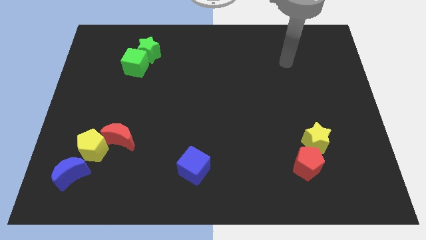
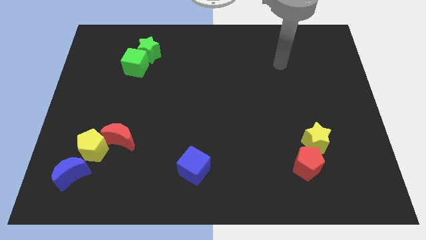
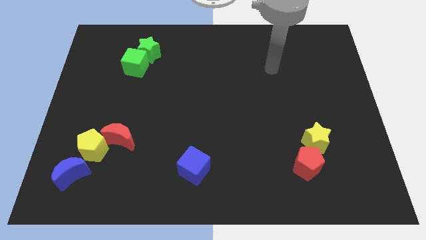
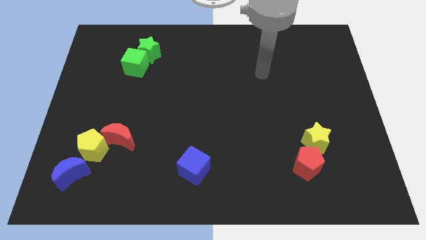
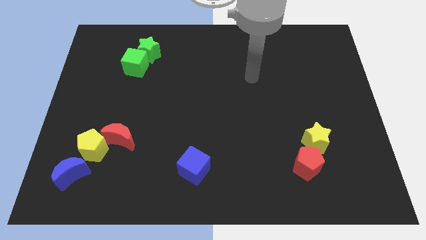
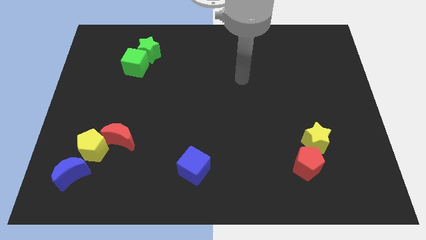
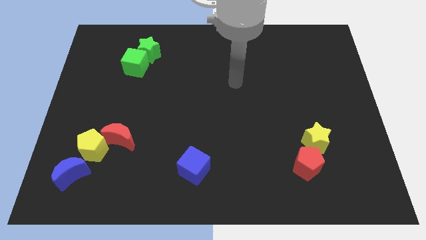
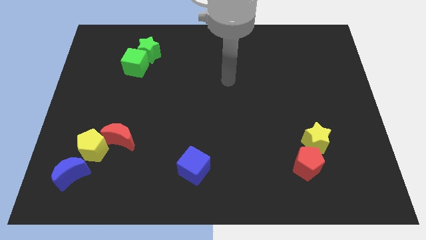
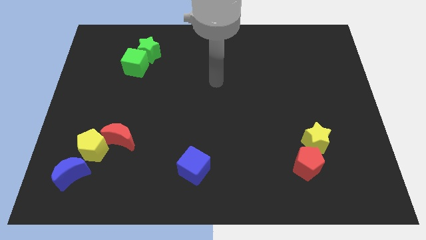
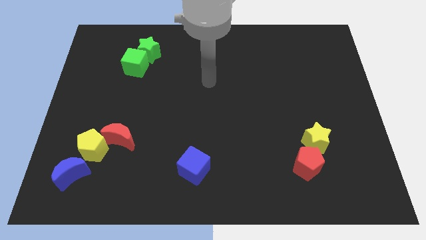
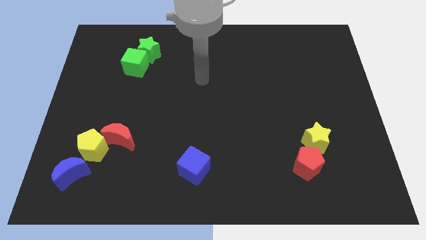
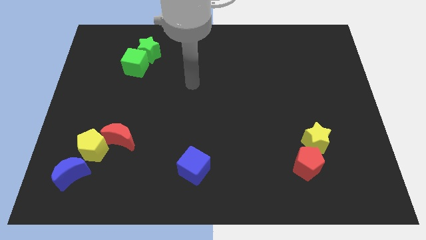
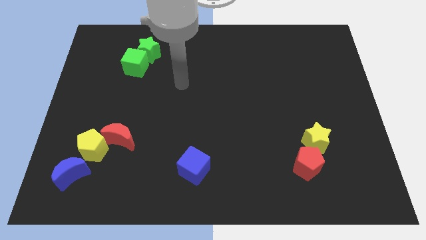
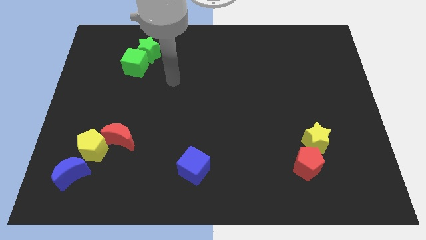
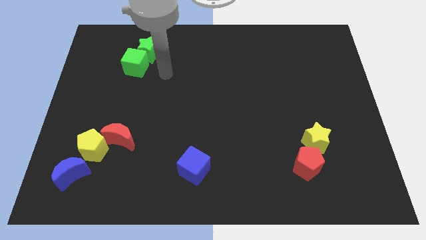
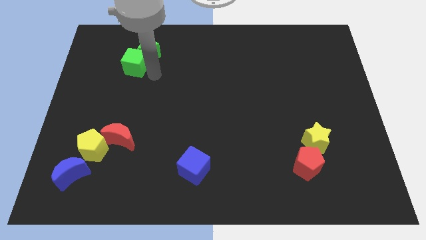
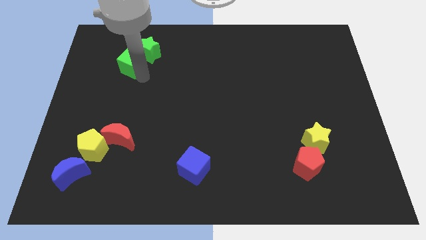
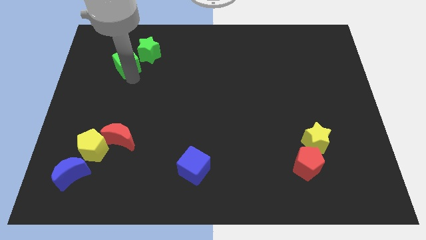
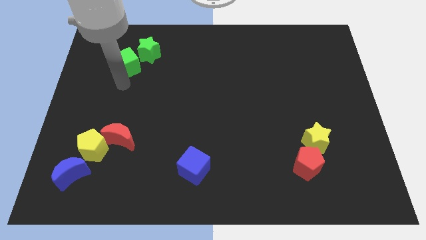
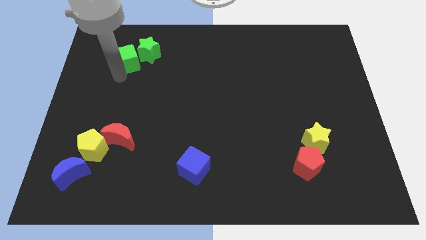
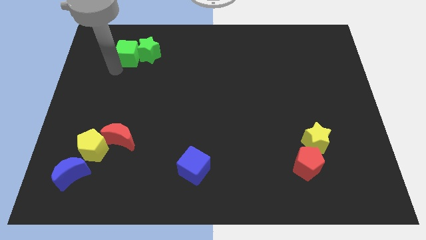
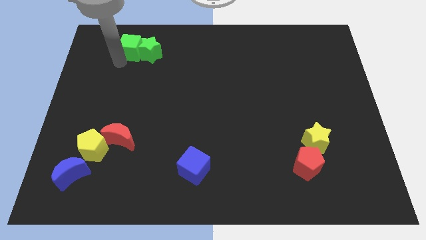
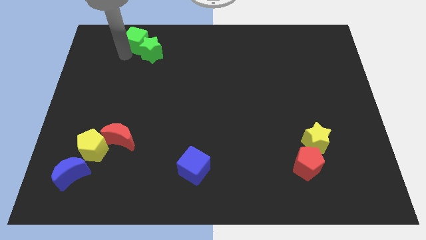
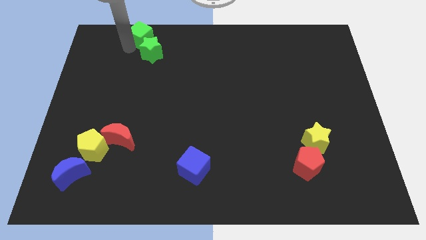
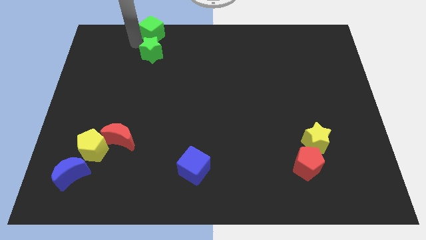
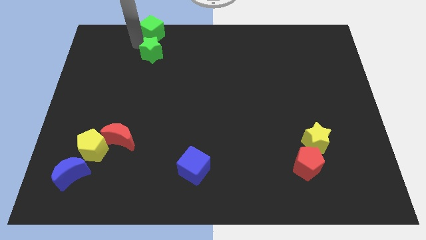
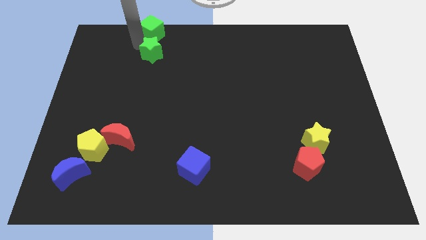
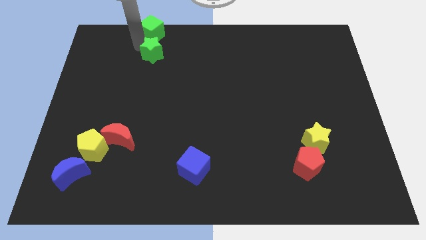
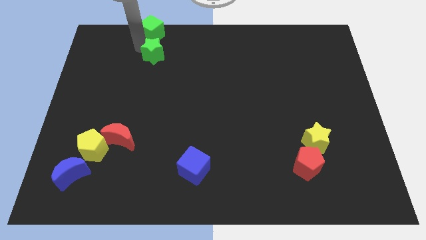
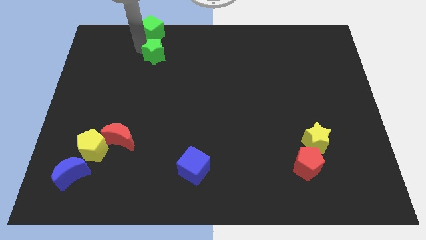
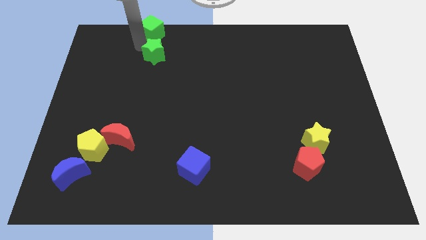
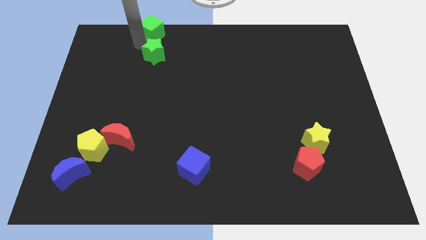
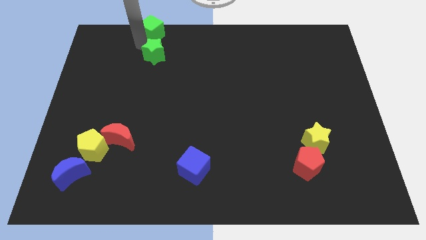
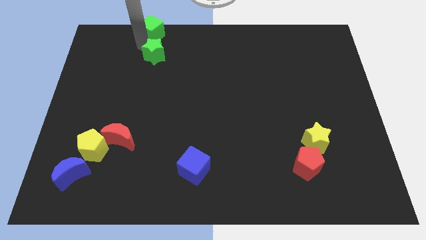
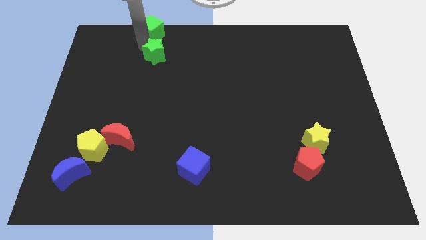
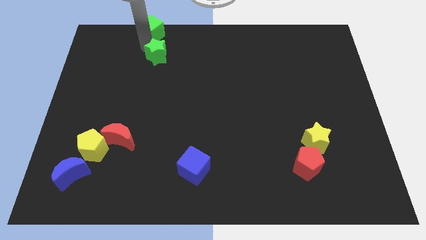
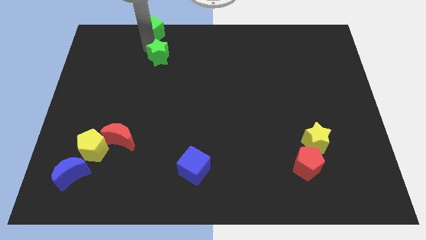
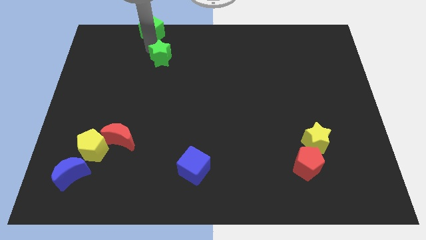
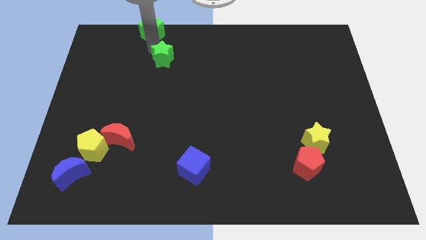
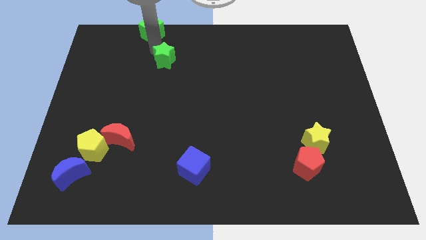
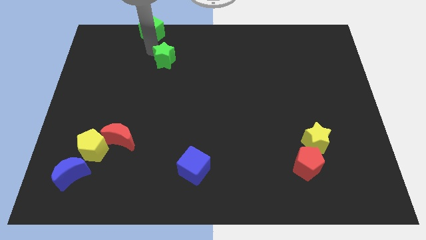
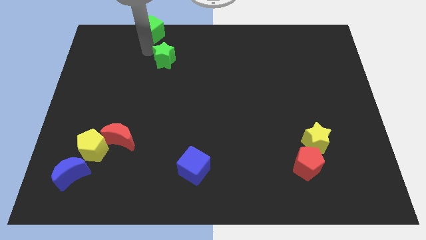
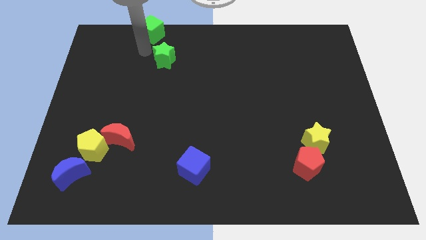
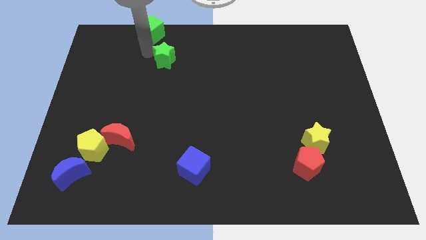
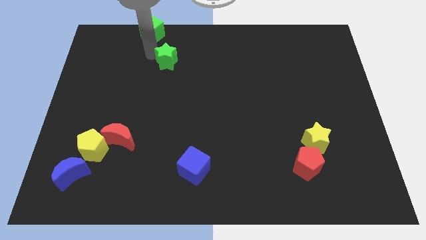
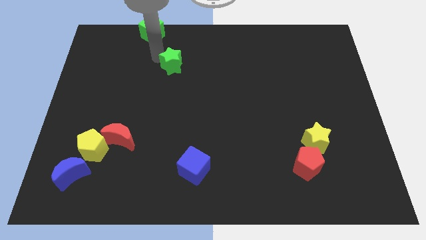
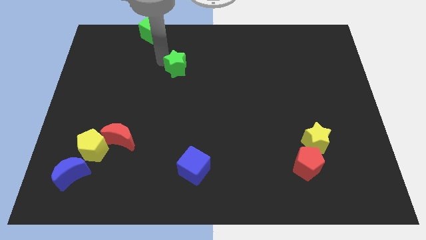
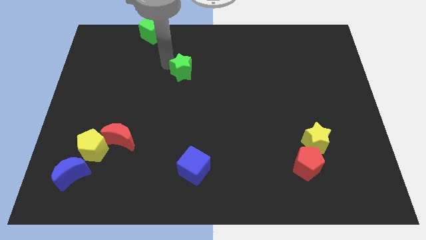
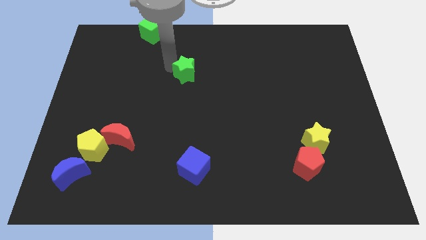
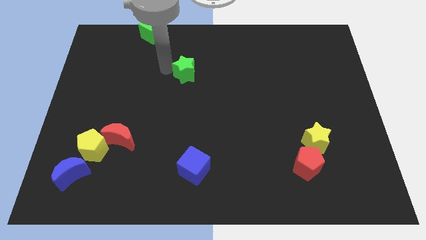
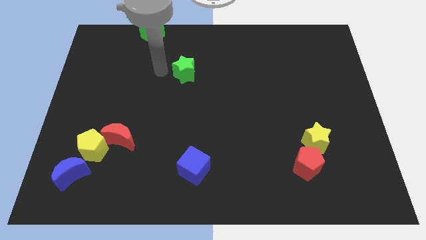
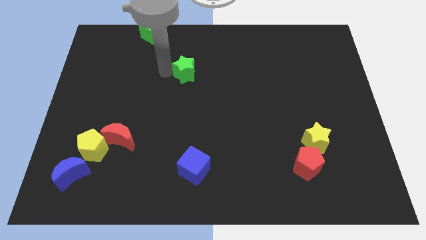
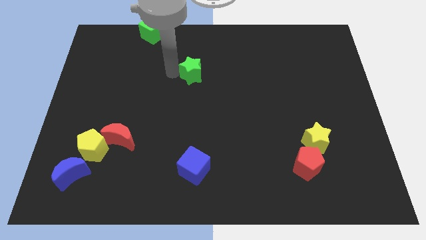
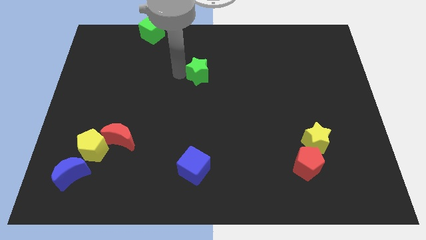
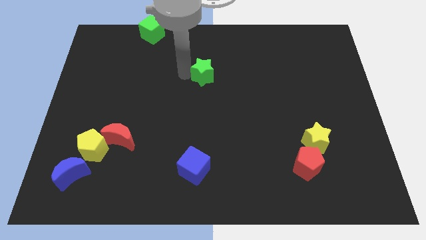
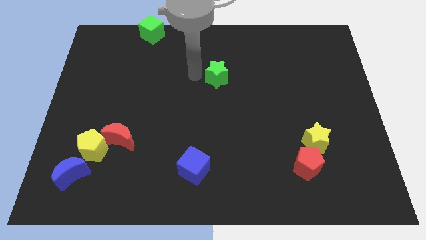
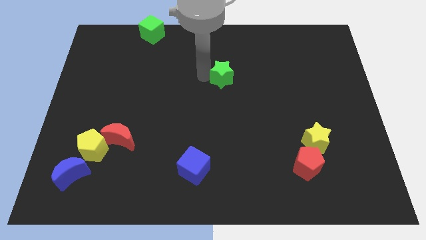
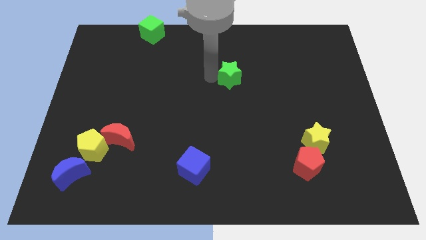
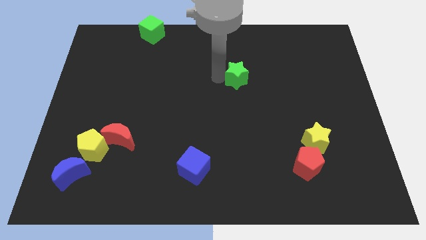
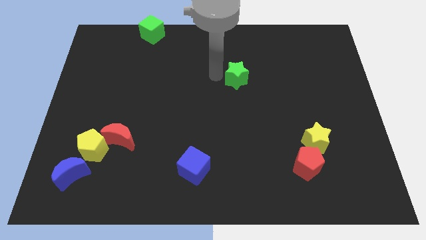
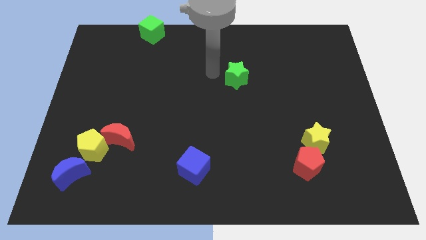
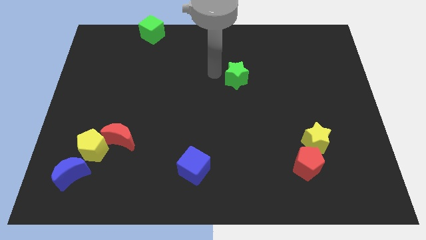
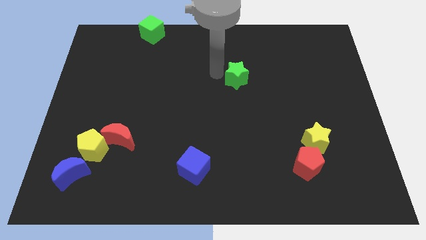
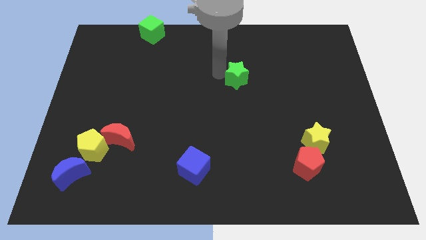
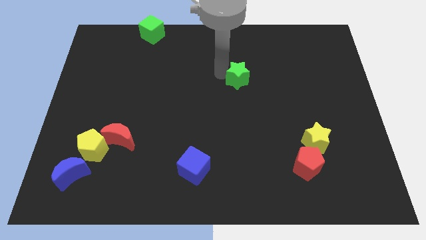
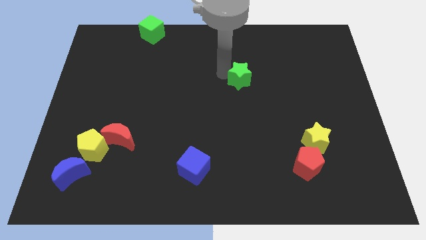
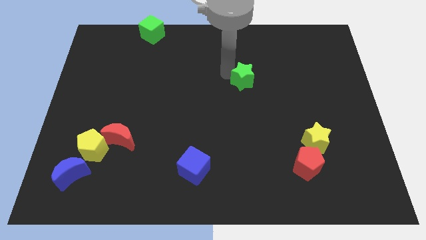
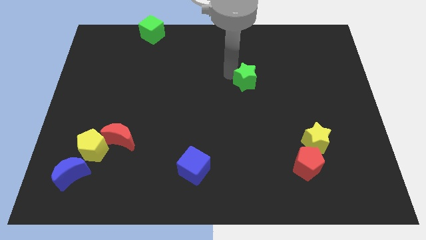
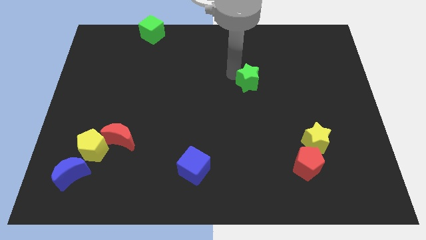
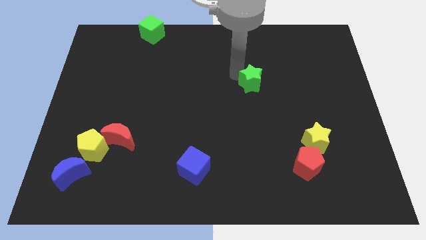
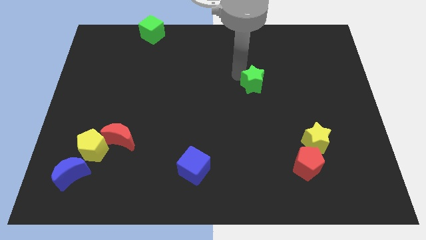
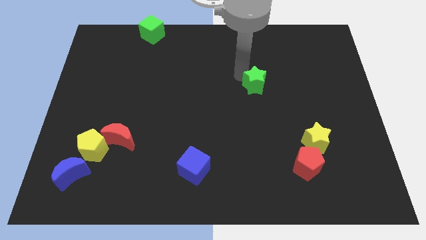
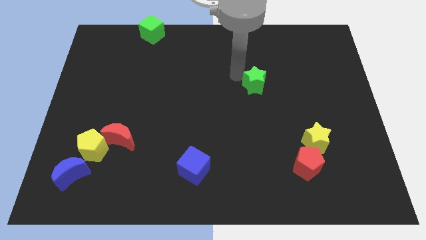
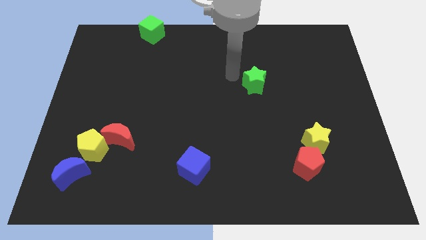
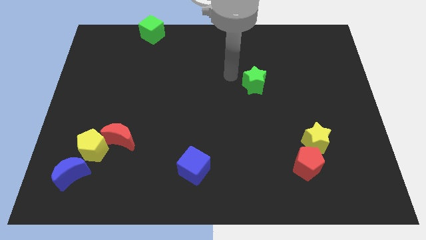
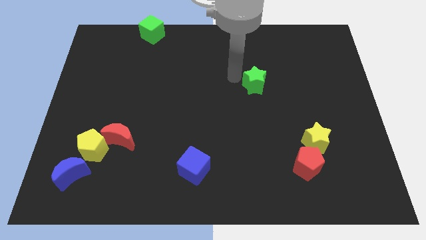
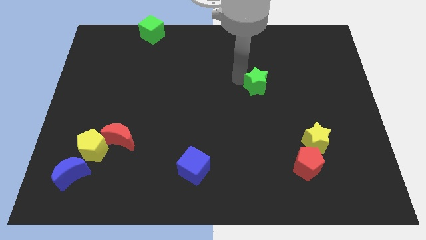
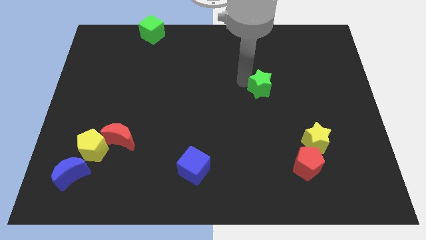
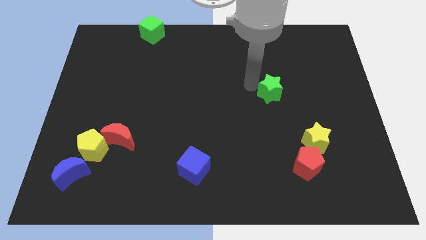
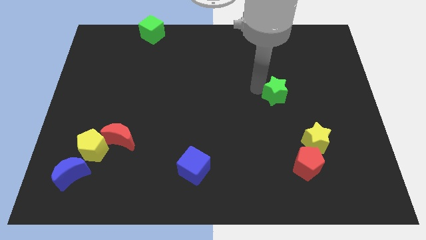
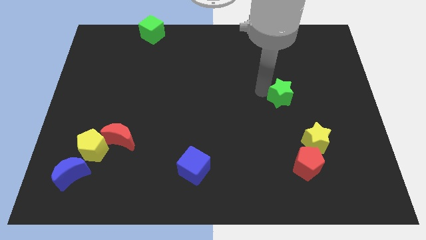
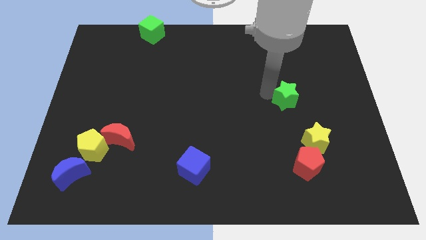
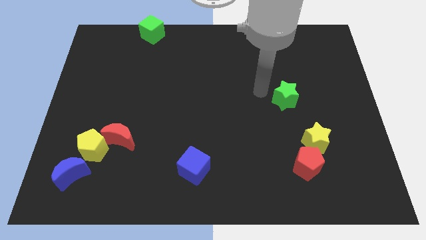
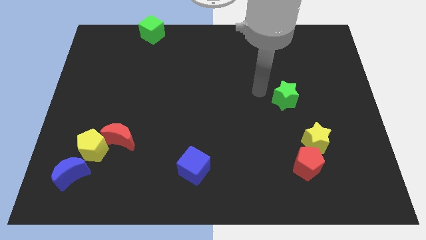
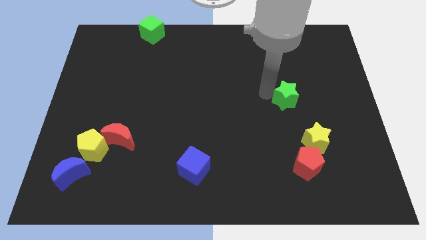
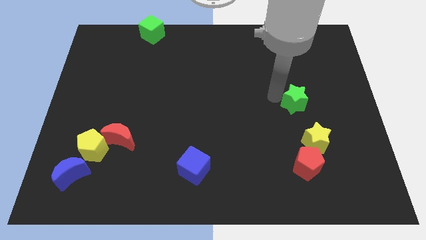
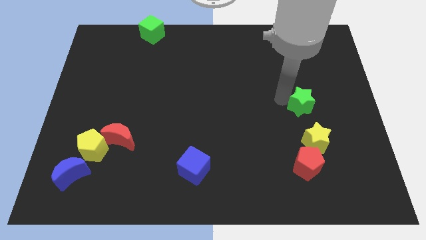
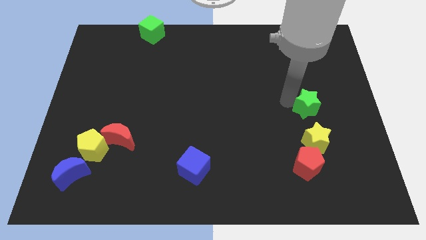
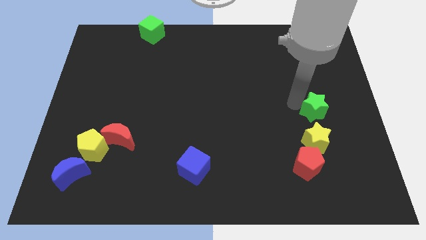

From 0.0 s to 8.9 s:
slide the green star diagonally up and to the right of the yellow star
